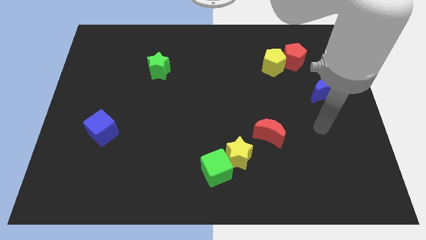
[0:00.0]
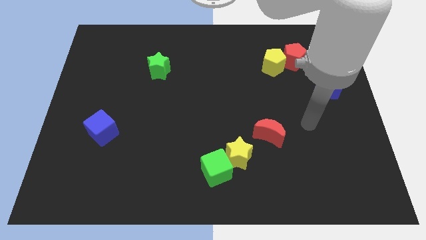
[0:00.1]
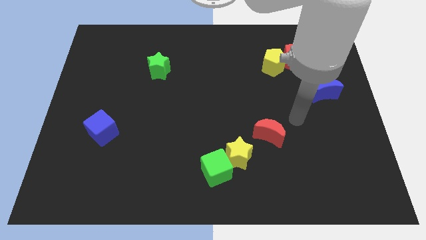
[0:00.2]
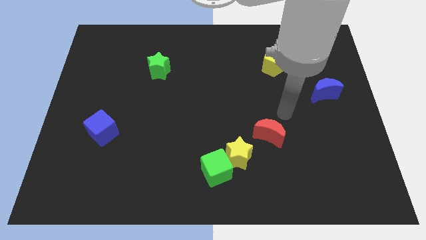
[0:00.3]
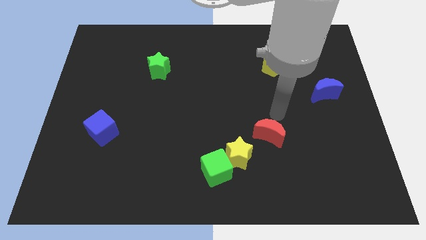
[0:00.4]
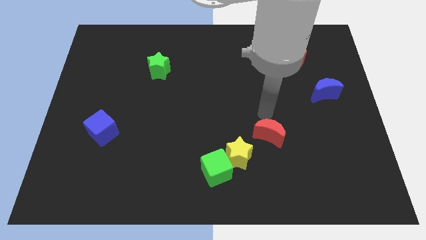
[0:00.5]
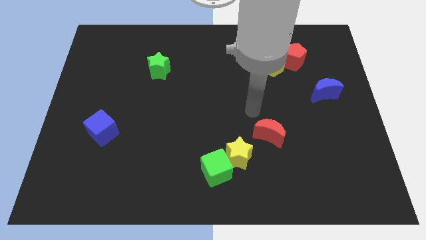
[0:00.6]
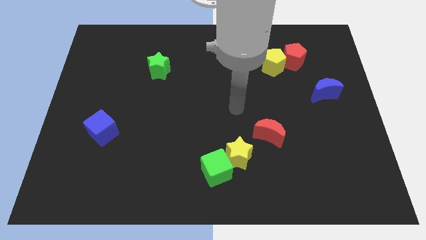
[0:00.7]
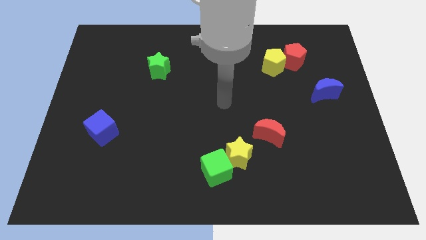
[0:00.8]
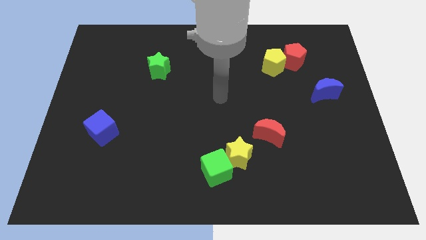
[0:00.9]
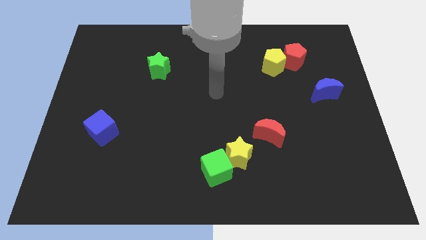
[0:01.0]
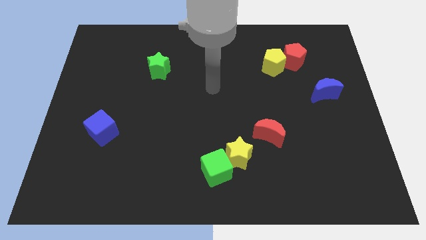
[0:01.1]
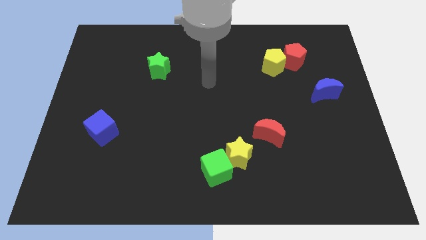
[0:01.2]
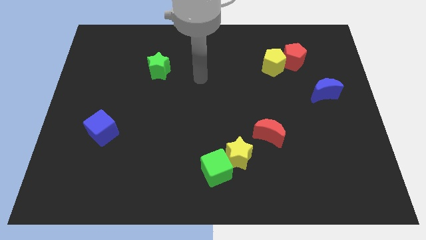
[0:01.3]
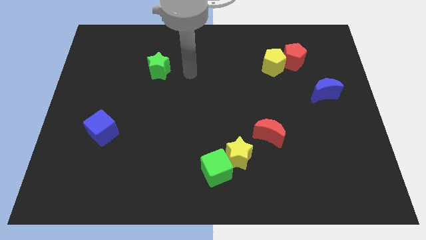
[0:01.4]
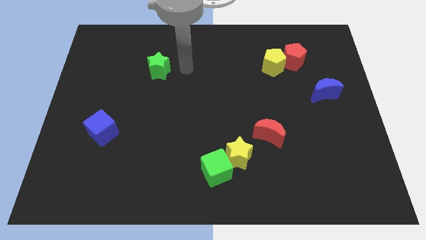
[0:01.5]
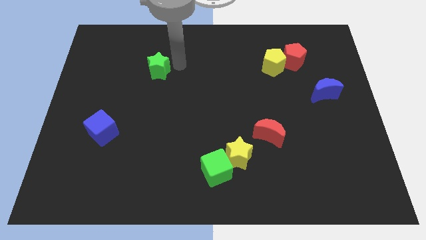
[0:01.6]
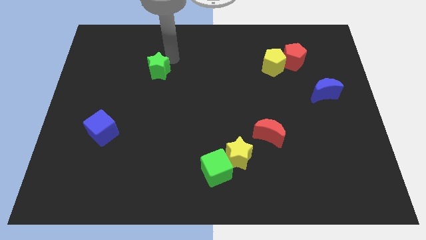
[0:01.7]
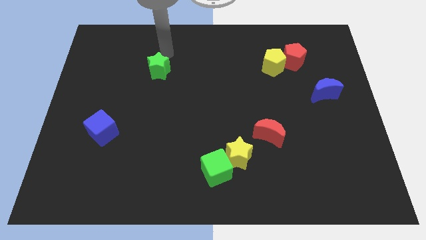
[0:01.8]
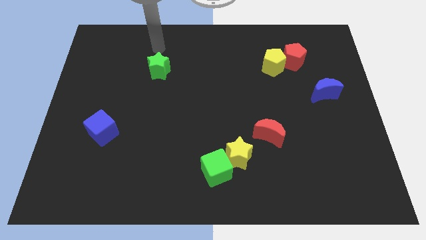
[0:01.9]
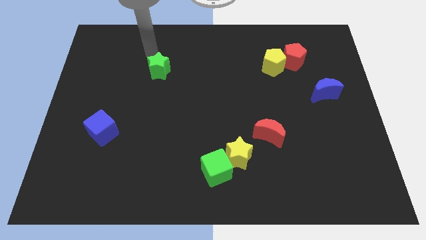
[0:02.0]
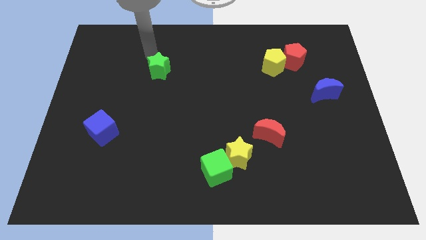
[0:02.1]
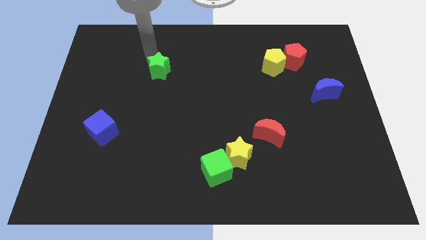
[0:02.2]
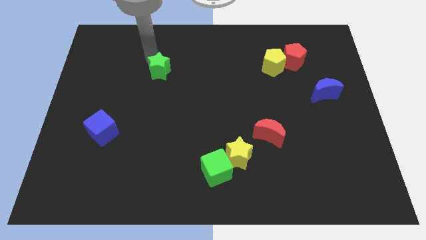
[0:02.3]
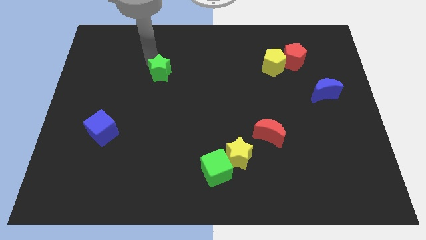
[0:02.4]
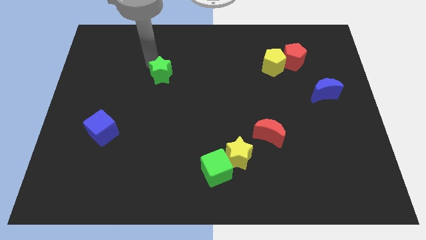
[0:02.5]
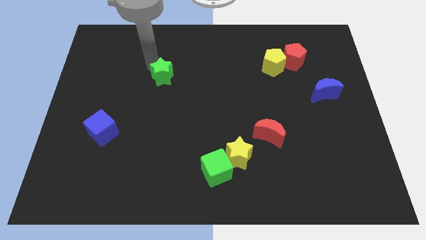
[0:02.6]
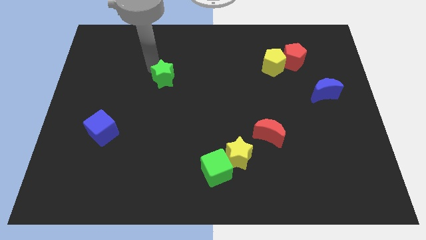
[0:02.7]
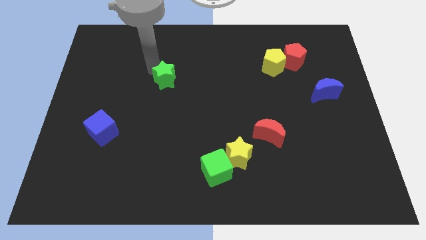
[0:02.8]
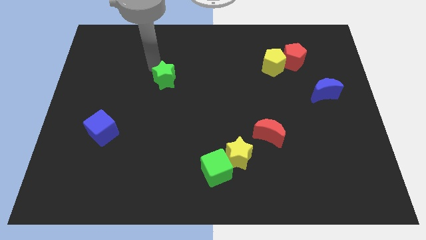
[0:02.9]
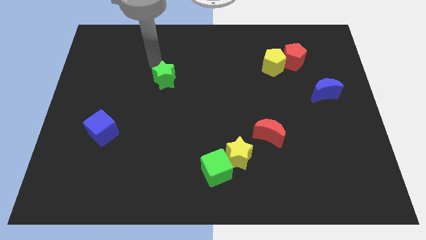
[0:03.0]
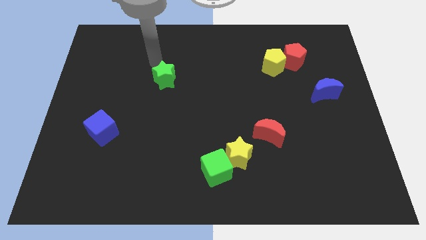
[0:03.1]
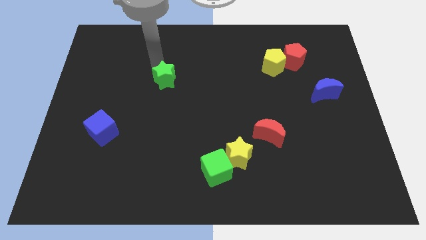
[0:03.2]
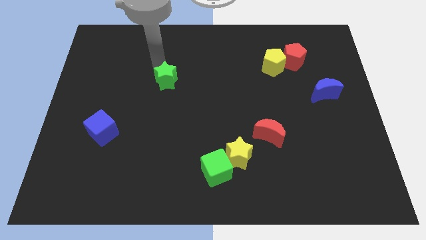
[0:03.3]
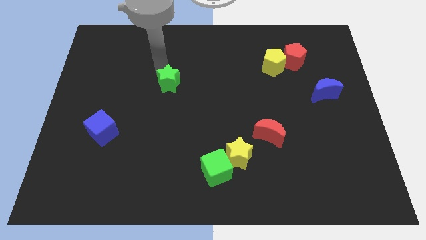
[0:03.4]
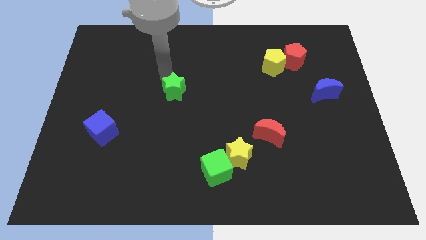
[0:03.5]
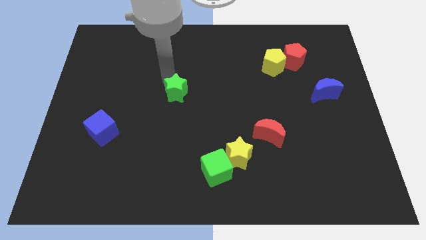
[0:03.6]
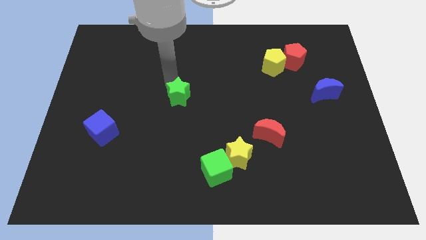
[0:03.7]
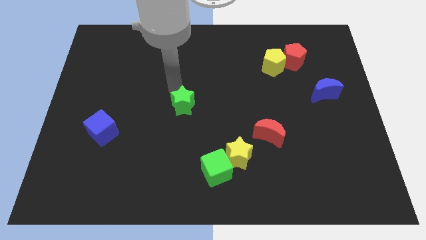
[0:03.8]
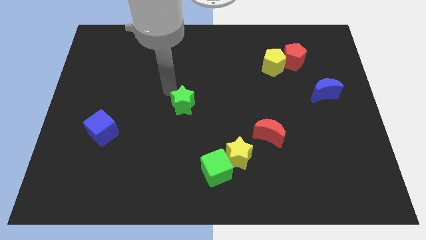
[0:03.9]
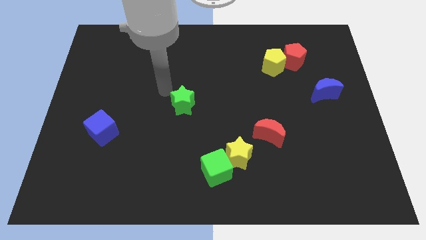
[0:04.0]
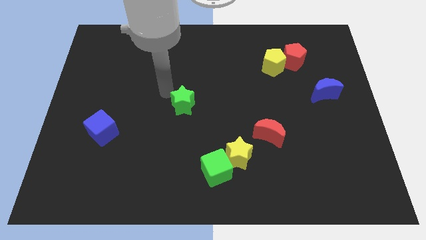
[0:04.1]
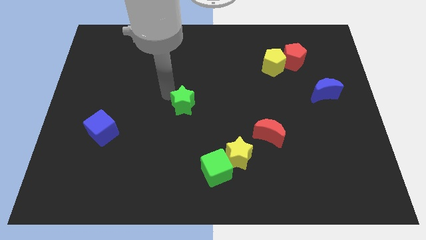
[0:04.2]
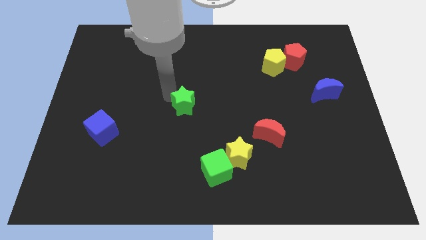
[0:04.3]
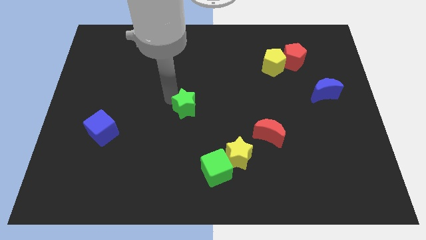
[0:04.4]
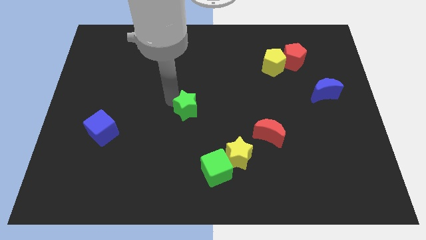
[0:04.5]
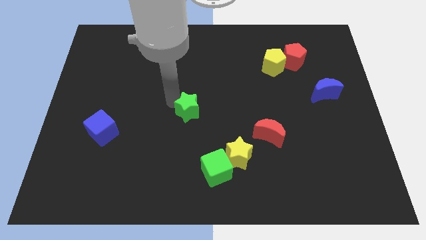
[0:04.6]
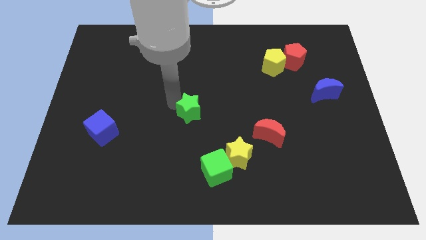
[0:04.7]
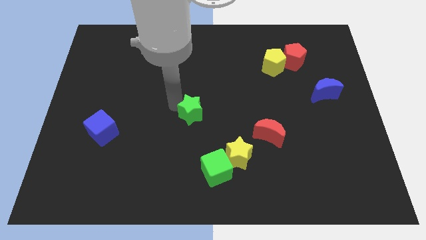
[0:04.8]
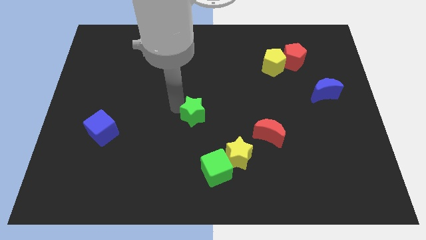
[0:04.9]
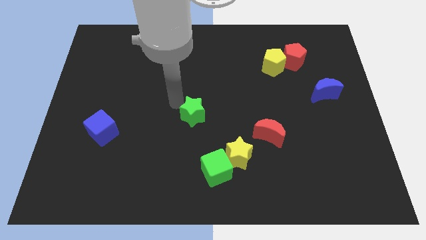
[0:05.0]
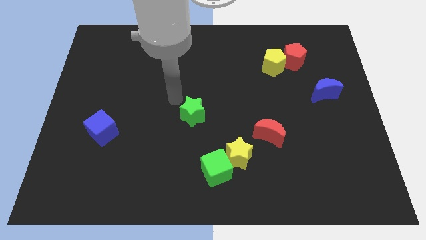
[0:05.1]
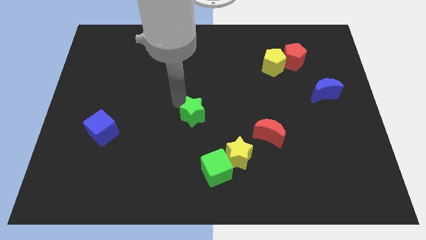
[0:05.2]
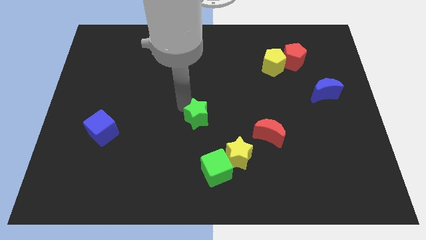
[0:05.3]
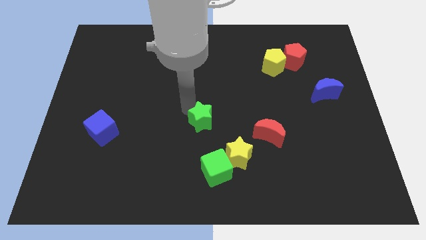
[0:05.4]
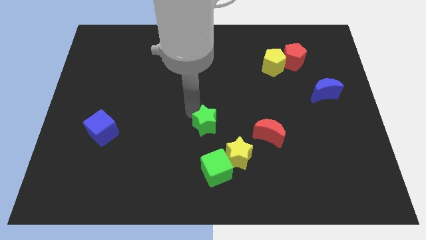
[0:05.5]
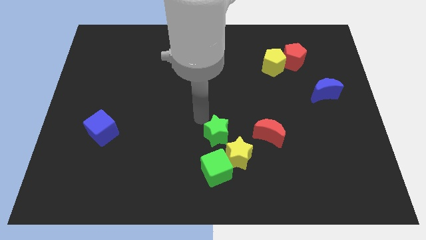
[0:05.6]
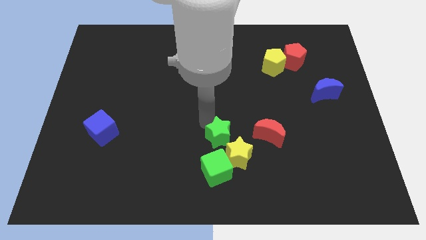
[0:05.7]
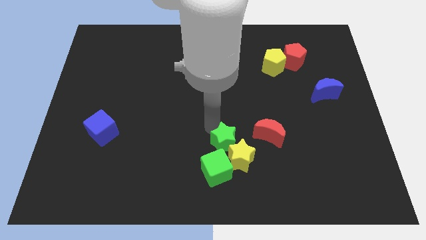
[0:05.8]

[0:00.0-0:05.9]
put the green star close to the yellow star

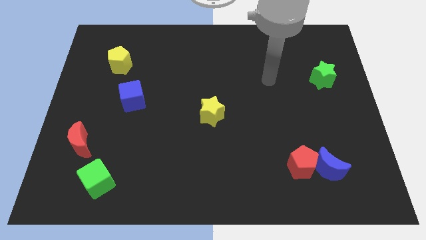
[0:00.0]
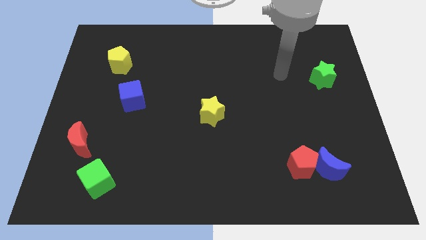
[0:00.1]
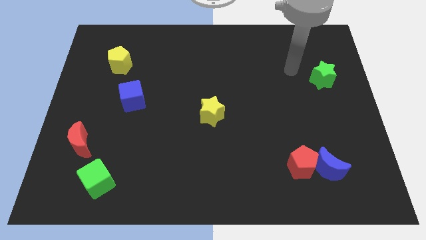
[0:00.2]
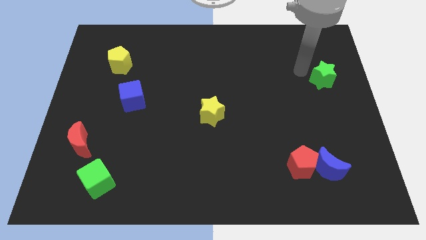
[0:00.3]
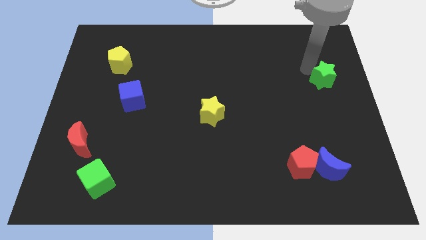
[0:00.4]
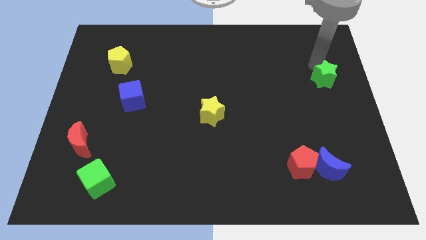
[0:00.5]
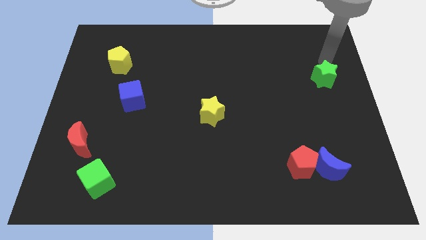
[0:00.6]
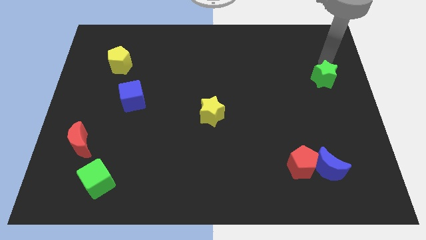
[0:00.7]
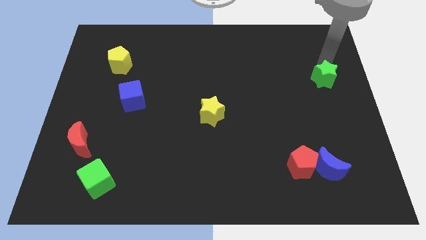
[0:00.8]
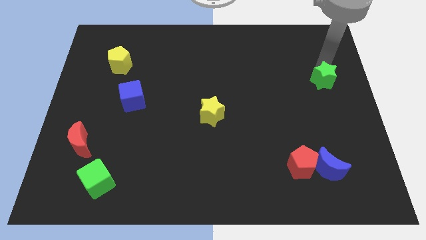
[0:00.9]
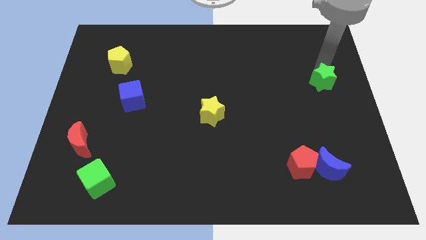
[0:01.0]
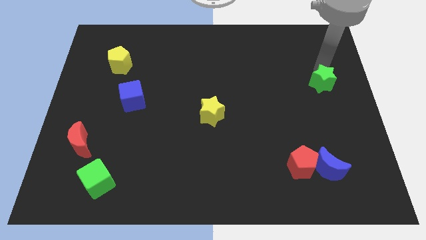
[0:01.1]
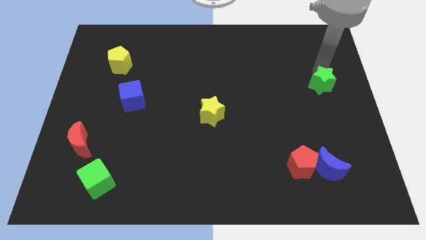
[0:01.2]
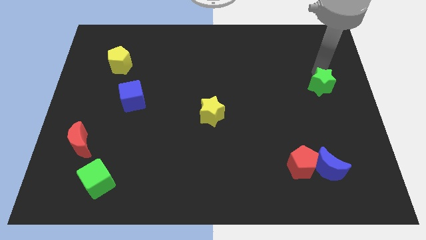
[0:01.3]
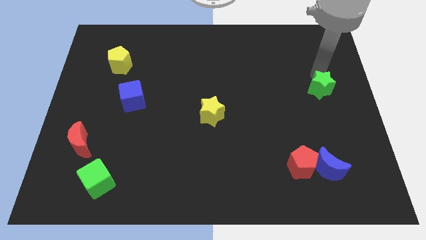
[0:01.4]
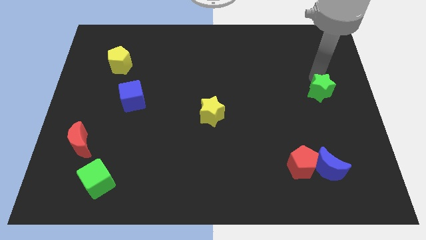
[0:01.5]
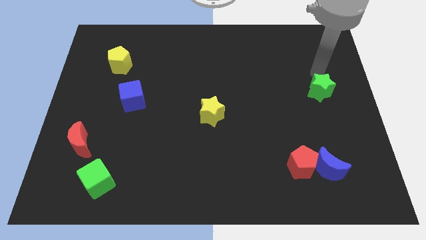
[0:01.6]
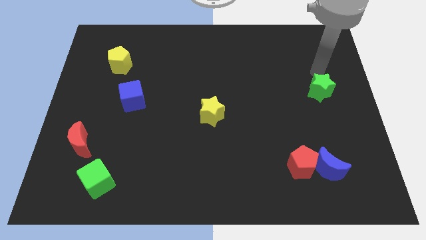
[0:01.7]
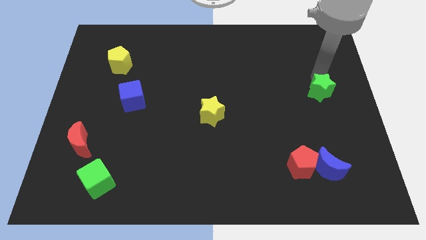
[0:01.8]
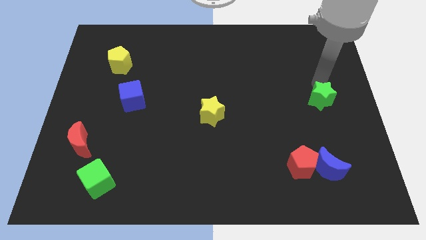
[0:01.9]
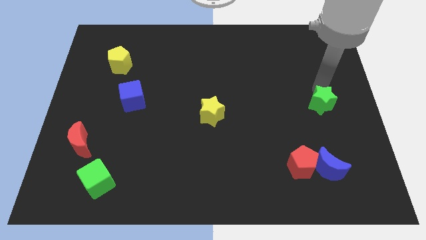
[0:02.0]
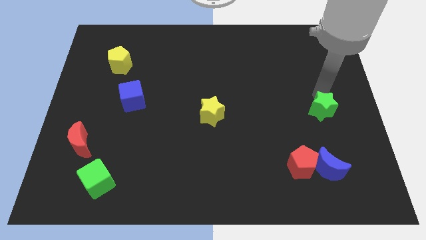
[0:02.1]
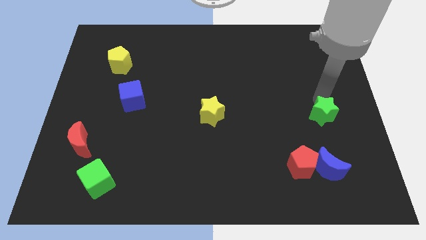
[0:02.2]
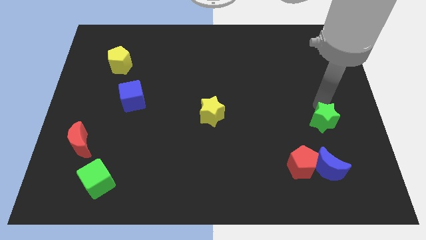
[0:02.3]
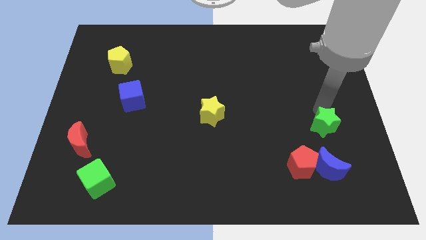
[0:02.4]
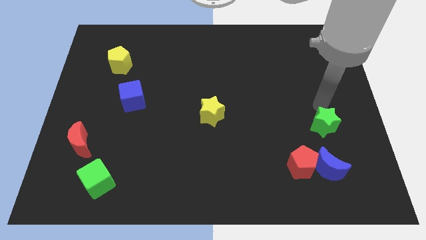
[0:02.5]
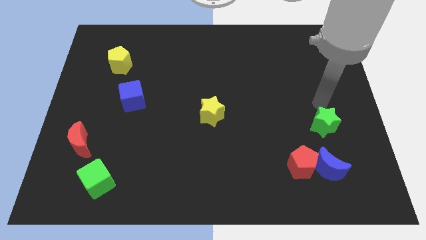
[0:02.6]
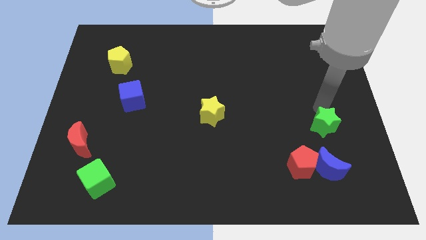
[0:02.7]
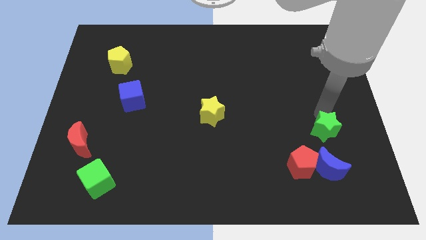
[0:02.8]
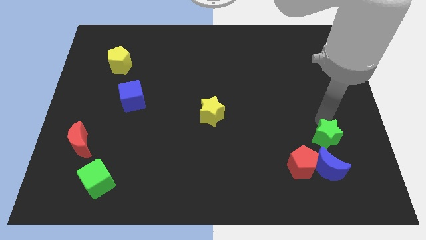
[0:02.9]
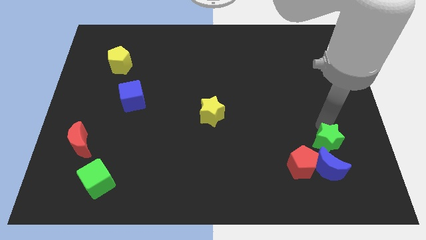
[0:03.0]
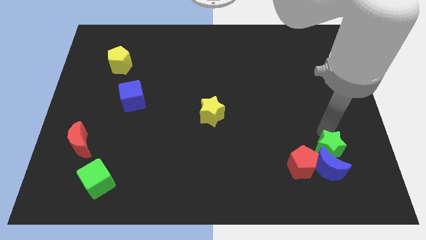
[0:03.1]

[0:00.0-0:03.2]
put the green star next to the blue moon
